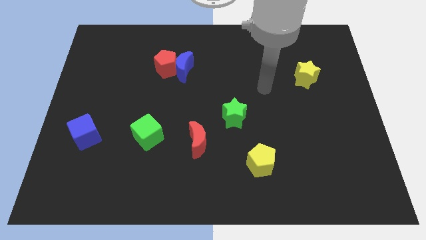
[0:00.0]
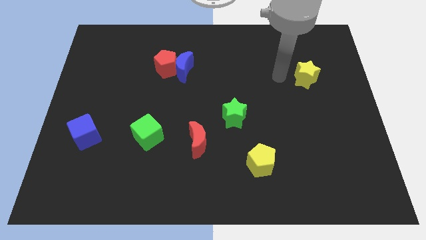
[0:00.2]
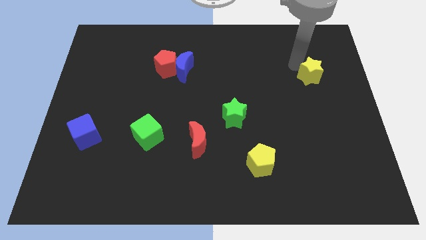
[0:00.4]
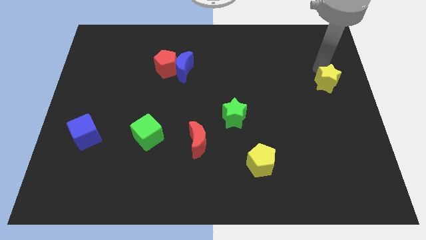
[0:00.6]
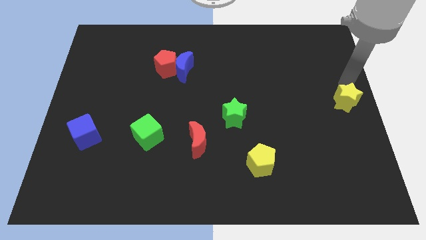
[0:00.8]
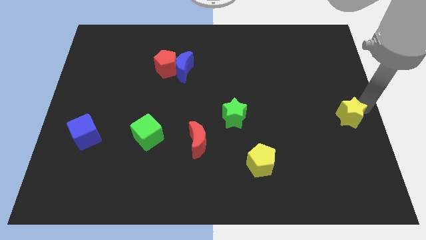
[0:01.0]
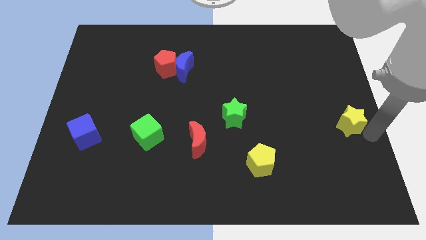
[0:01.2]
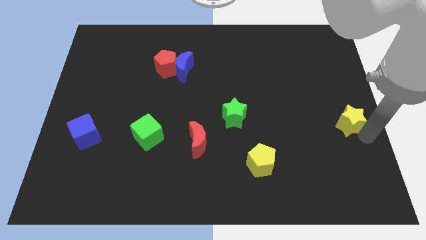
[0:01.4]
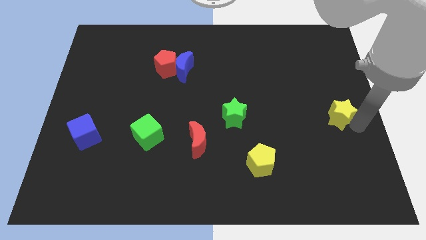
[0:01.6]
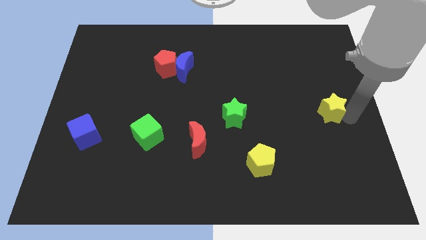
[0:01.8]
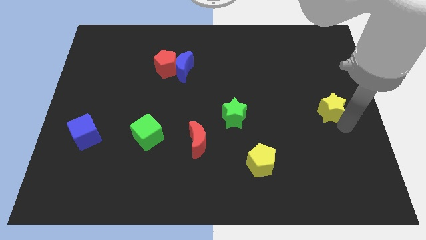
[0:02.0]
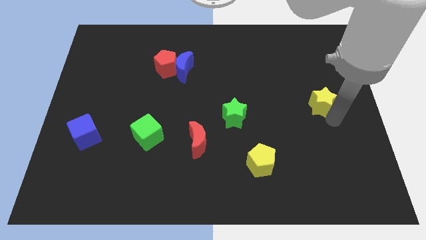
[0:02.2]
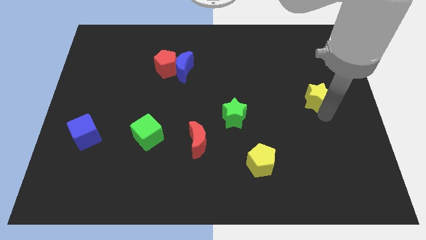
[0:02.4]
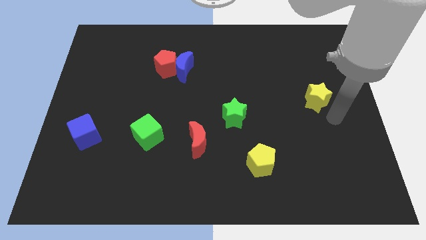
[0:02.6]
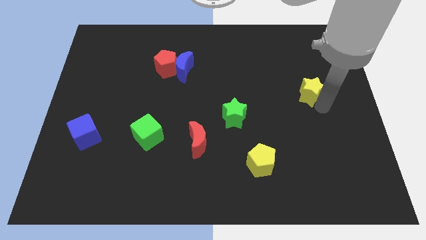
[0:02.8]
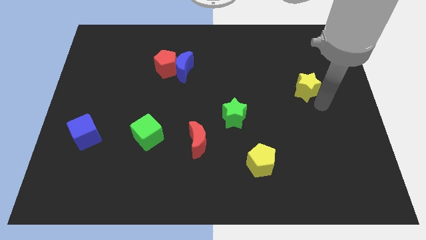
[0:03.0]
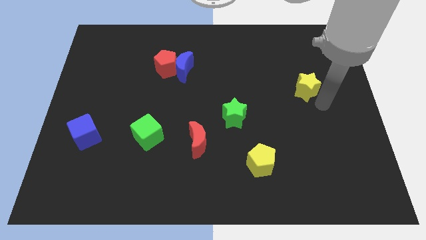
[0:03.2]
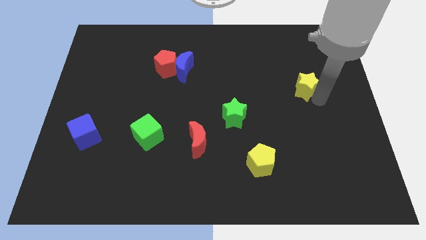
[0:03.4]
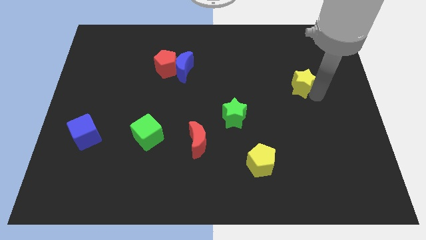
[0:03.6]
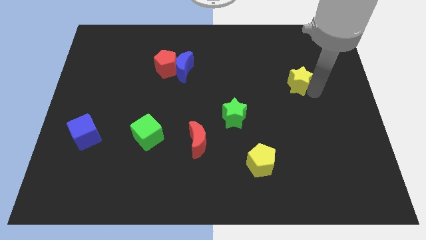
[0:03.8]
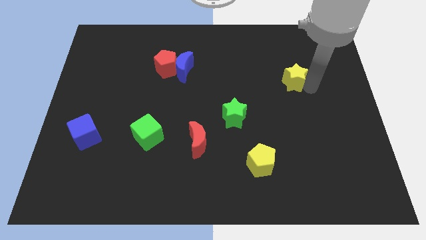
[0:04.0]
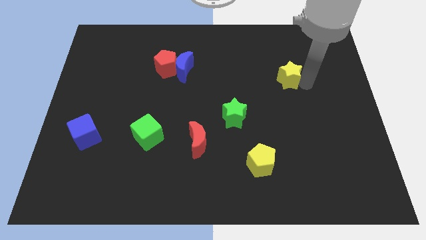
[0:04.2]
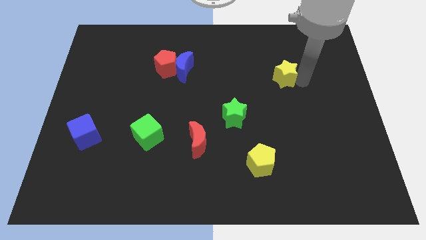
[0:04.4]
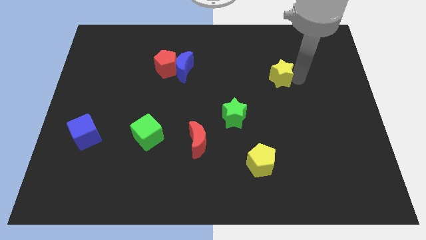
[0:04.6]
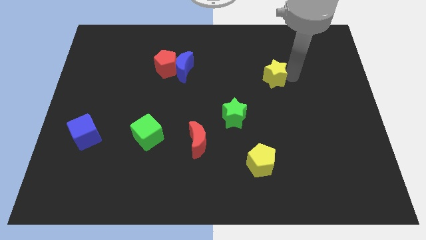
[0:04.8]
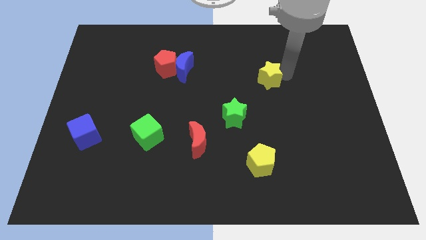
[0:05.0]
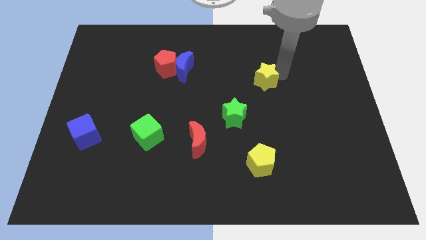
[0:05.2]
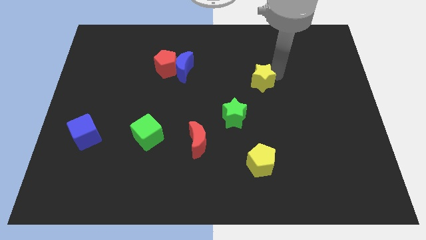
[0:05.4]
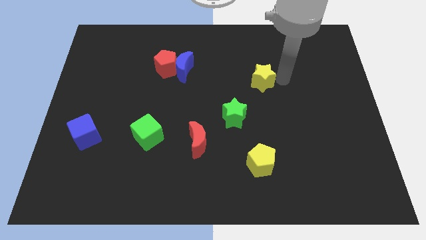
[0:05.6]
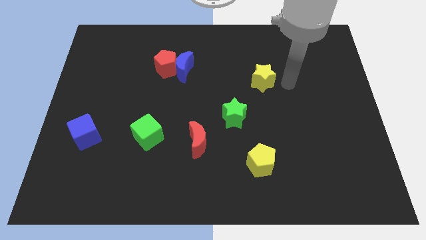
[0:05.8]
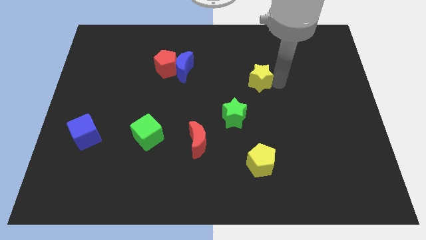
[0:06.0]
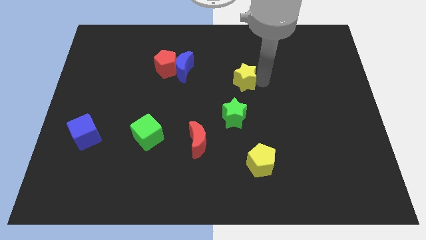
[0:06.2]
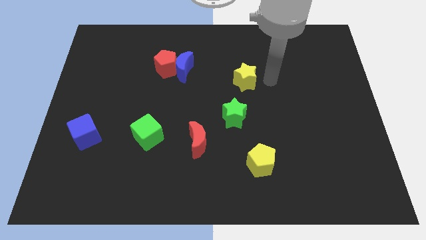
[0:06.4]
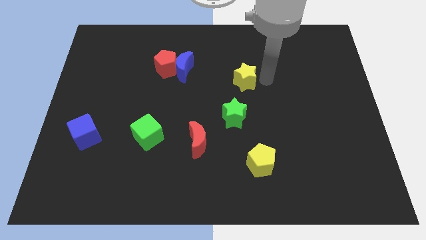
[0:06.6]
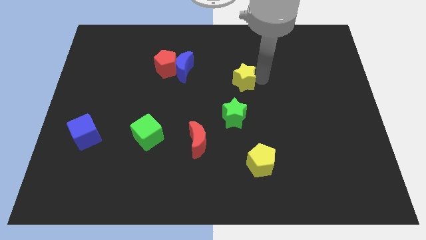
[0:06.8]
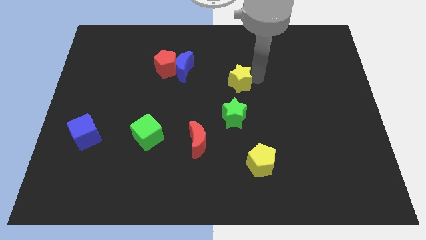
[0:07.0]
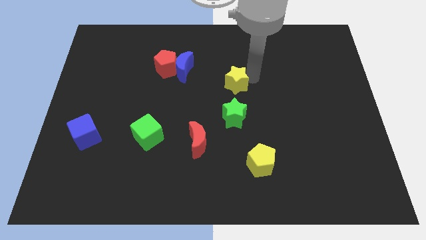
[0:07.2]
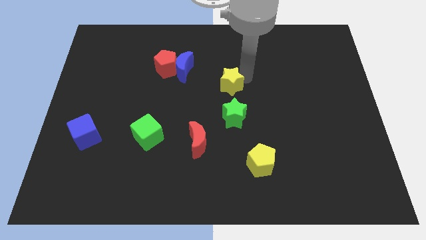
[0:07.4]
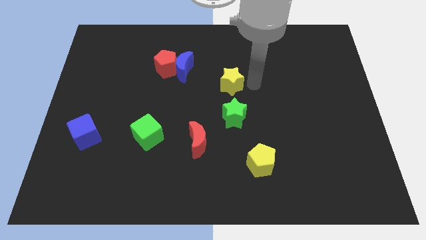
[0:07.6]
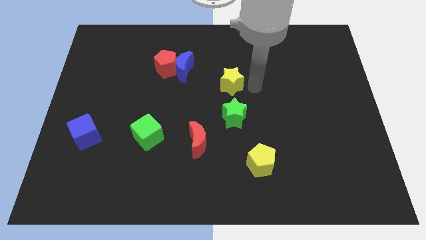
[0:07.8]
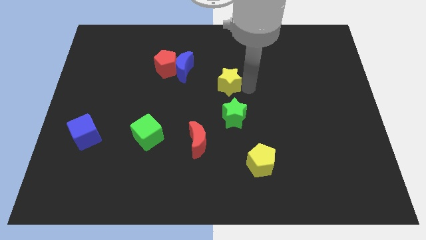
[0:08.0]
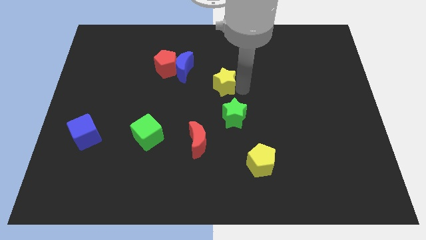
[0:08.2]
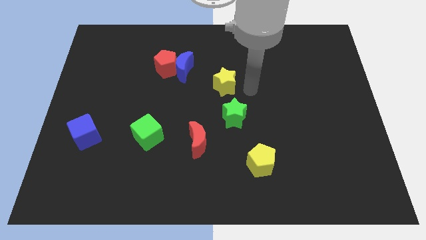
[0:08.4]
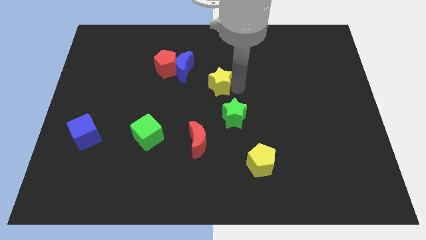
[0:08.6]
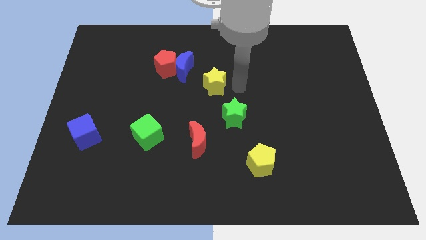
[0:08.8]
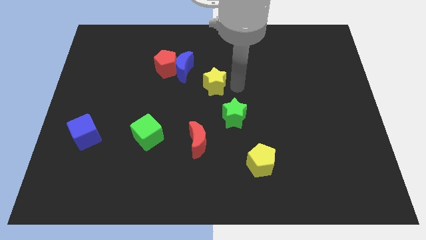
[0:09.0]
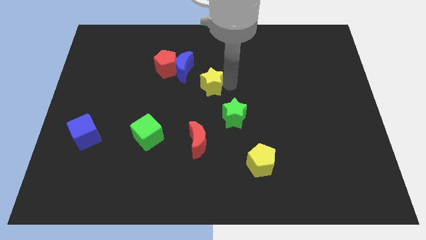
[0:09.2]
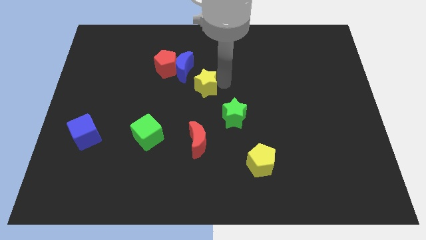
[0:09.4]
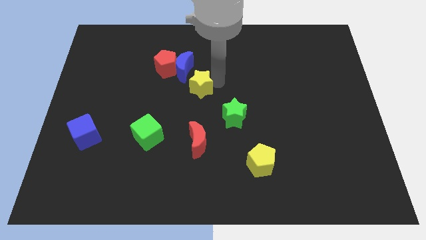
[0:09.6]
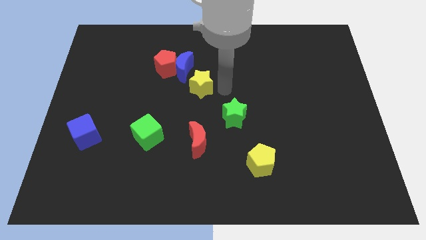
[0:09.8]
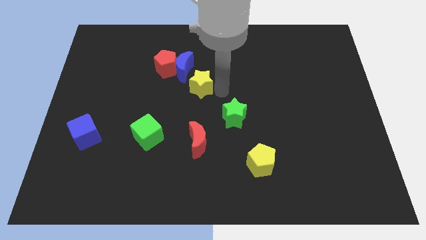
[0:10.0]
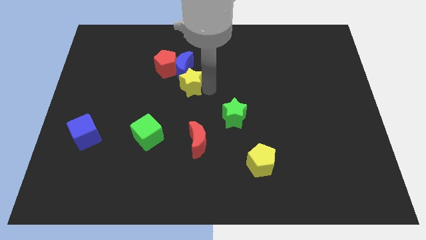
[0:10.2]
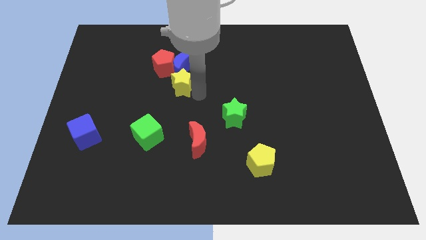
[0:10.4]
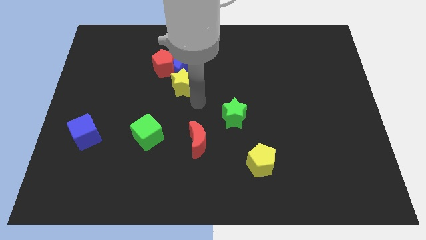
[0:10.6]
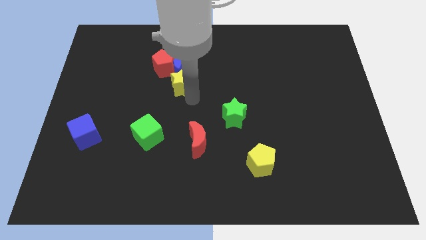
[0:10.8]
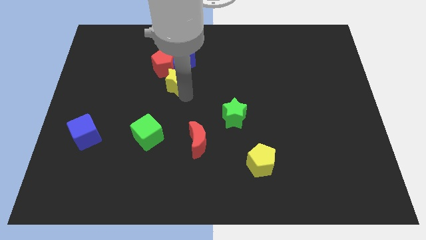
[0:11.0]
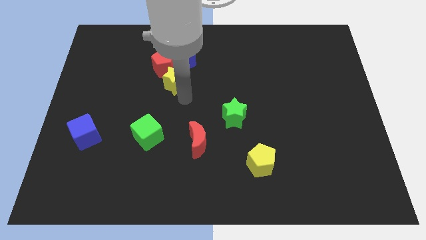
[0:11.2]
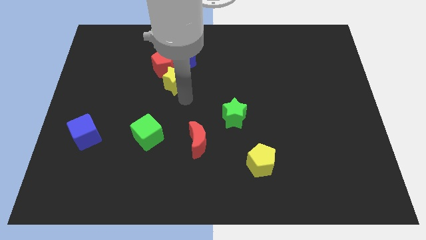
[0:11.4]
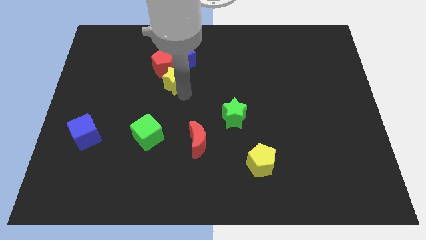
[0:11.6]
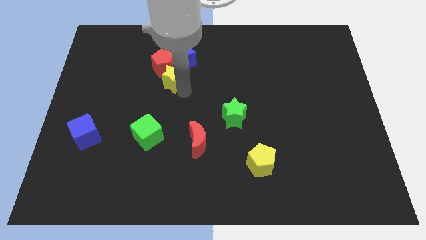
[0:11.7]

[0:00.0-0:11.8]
slide the yellow star next to the red pentagon
